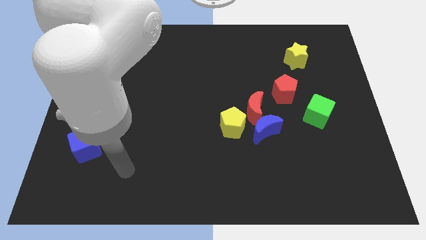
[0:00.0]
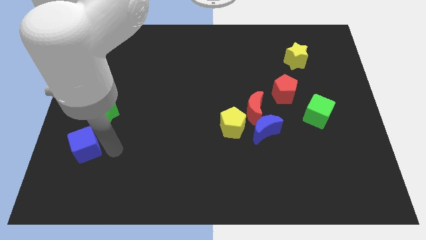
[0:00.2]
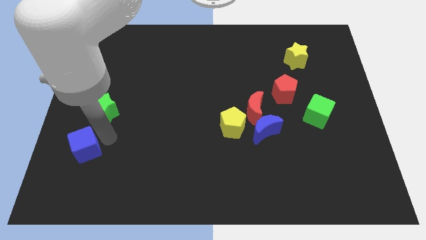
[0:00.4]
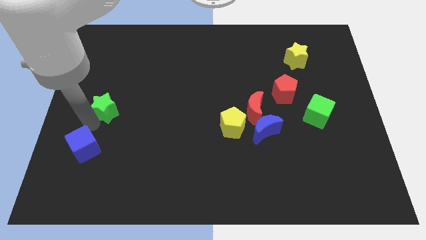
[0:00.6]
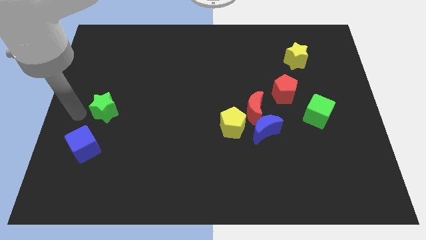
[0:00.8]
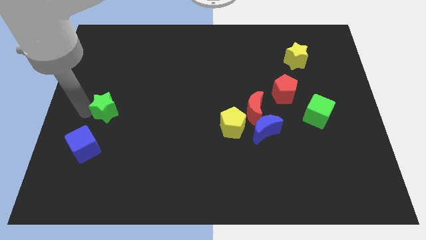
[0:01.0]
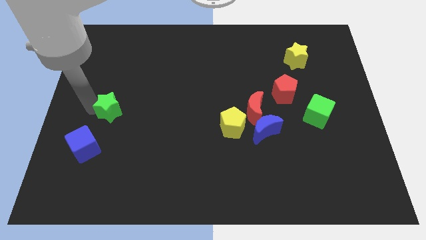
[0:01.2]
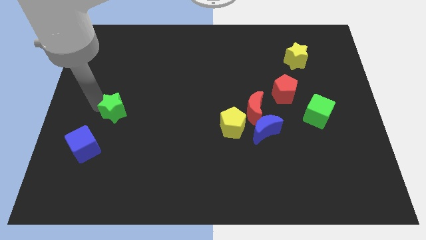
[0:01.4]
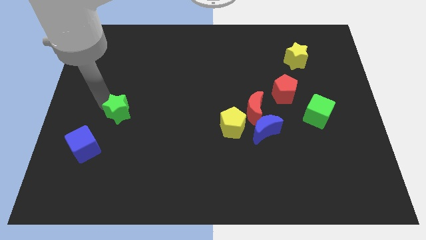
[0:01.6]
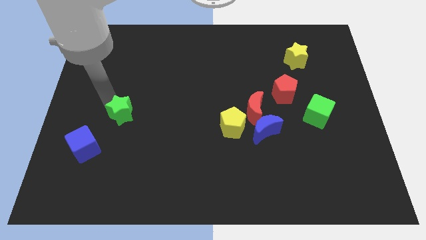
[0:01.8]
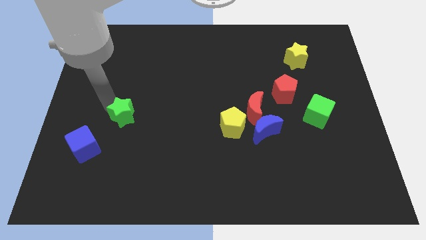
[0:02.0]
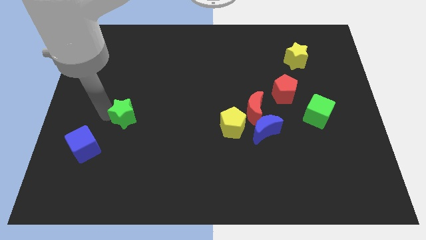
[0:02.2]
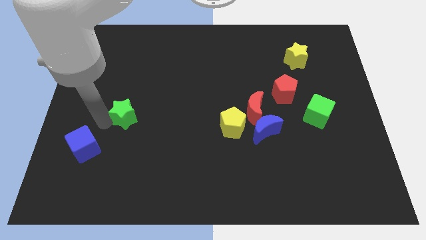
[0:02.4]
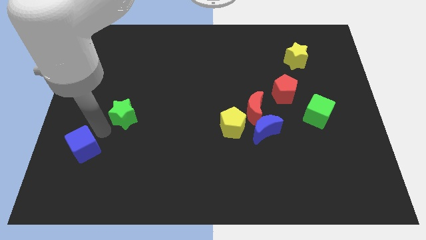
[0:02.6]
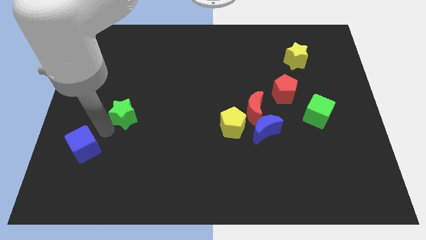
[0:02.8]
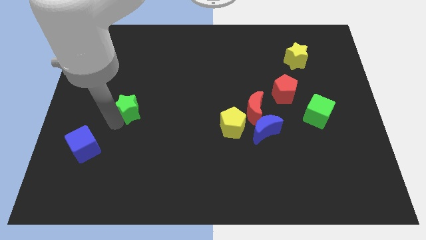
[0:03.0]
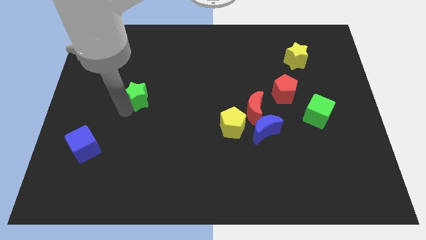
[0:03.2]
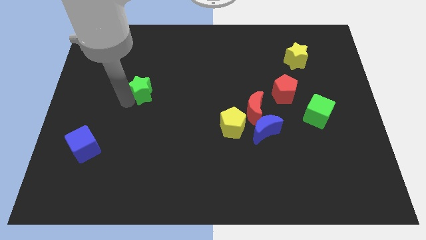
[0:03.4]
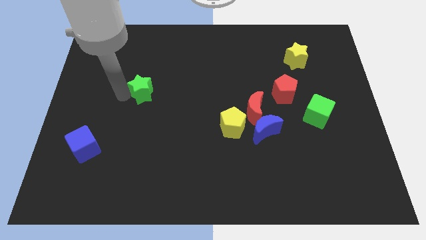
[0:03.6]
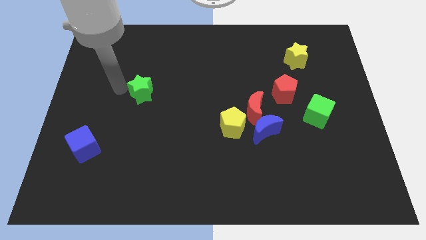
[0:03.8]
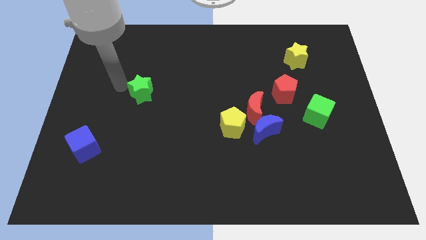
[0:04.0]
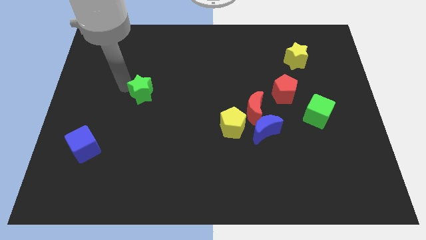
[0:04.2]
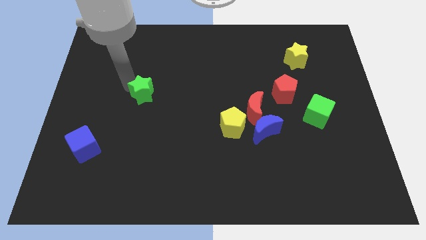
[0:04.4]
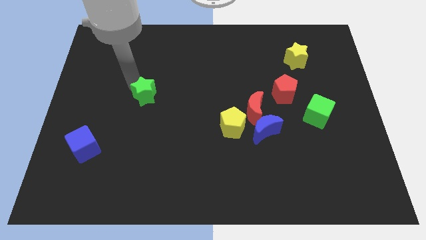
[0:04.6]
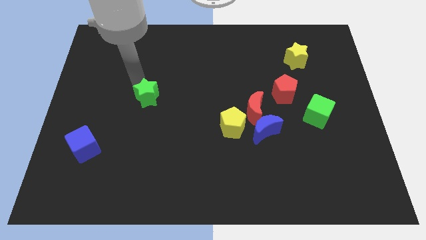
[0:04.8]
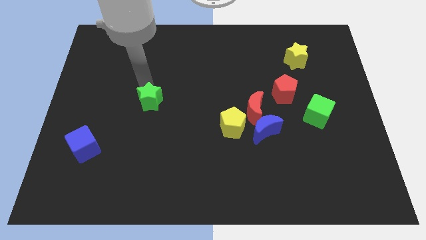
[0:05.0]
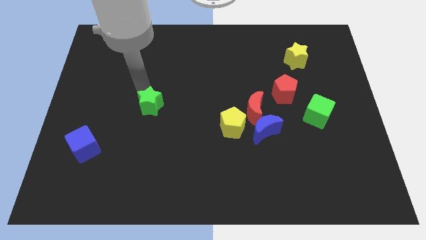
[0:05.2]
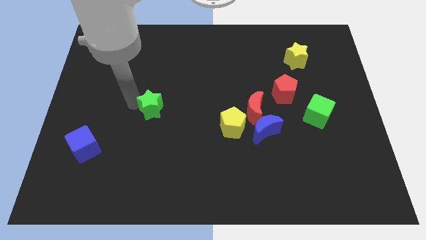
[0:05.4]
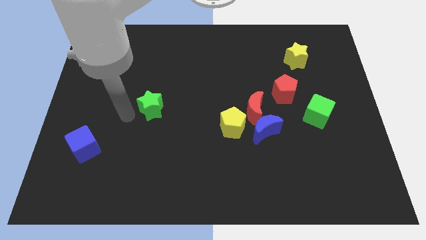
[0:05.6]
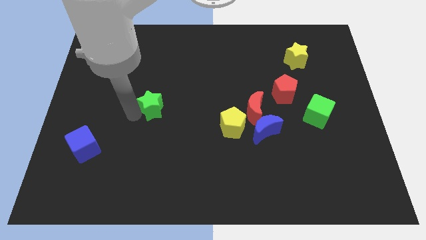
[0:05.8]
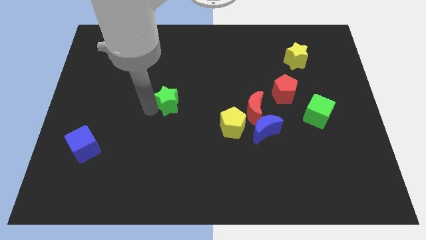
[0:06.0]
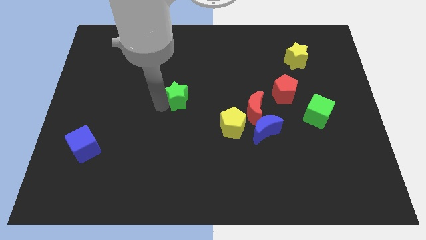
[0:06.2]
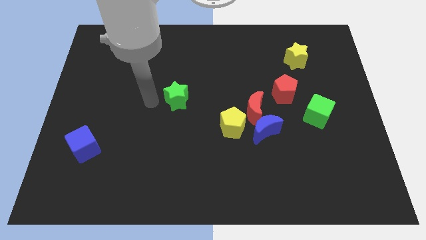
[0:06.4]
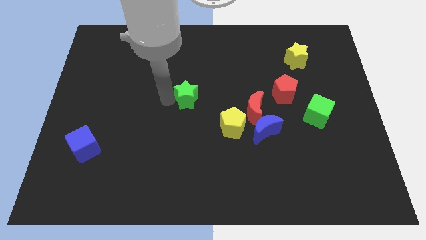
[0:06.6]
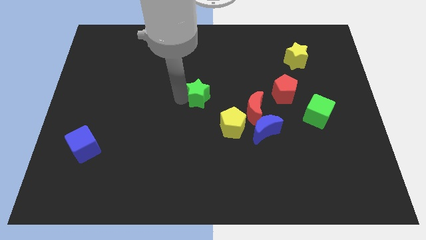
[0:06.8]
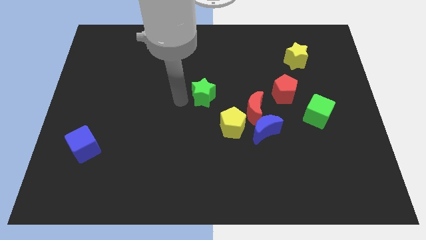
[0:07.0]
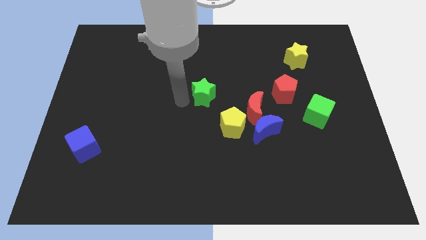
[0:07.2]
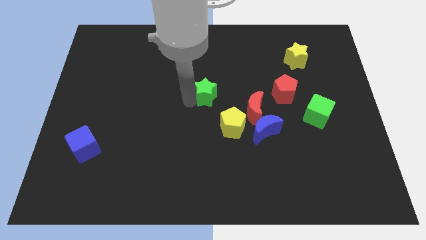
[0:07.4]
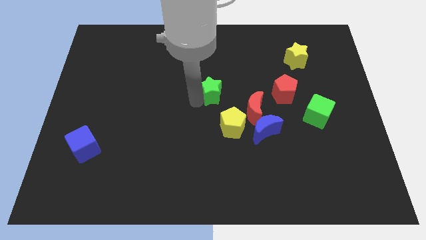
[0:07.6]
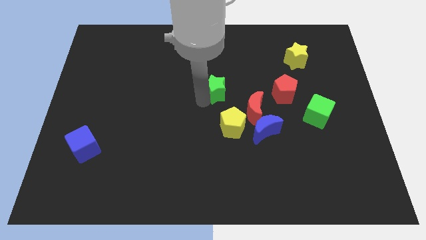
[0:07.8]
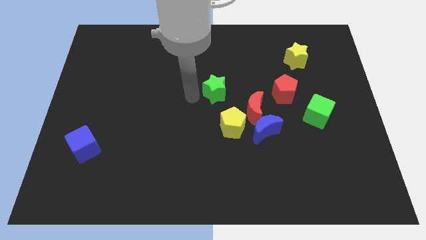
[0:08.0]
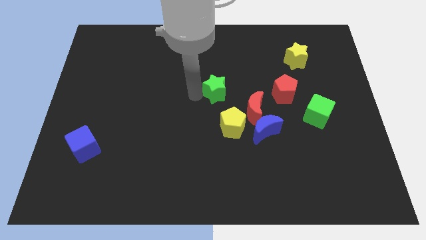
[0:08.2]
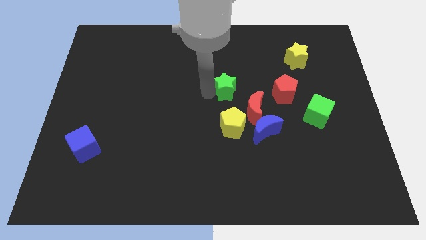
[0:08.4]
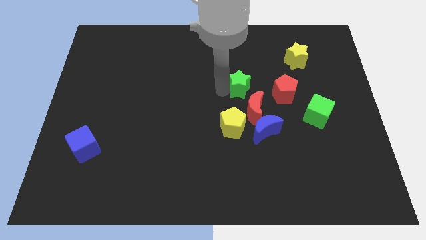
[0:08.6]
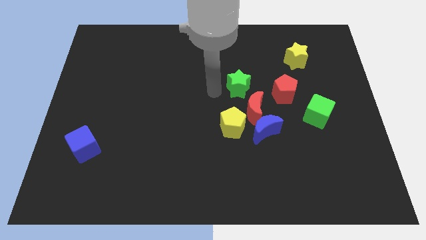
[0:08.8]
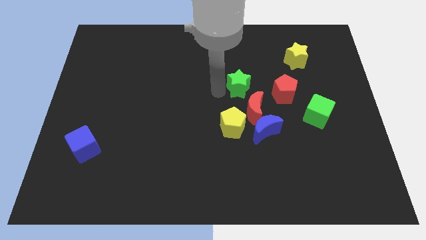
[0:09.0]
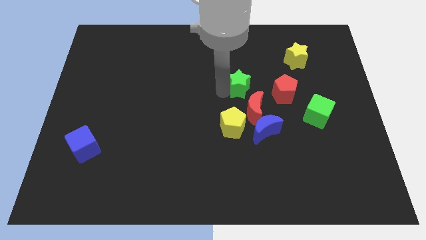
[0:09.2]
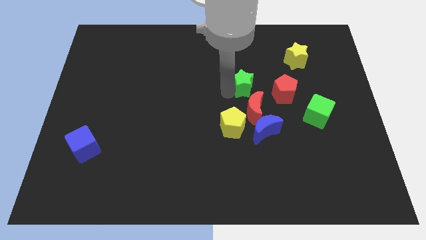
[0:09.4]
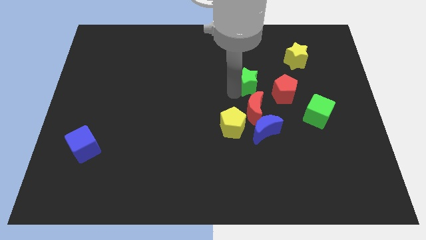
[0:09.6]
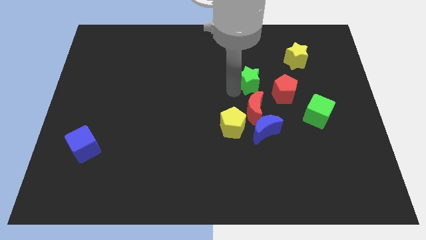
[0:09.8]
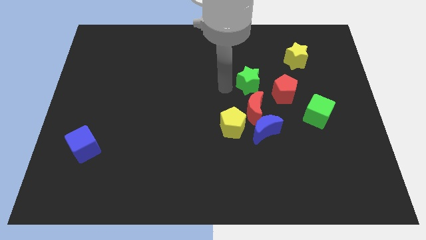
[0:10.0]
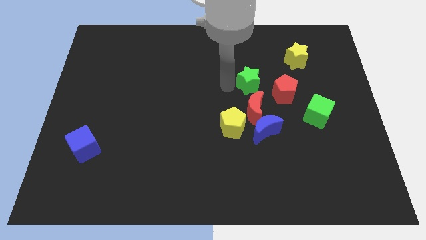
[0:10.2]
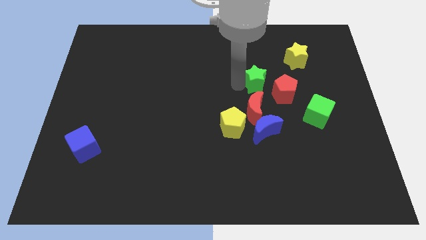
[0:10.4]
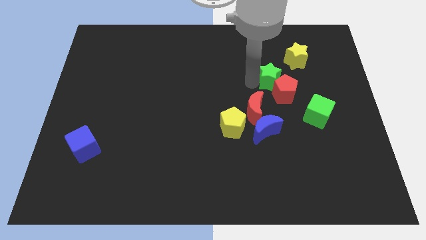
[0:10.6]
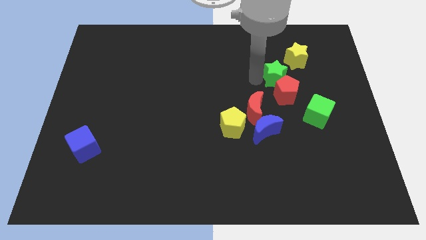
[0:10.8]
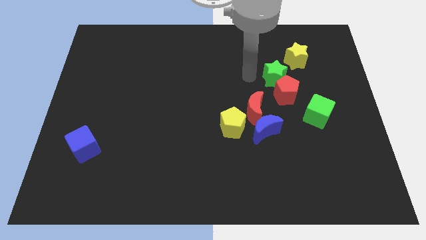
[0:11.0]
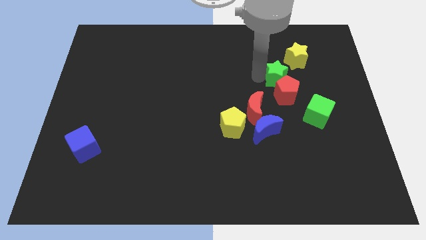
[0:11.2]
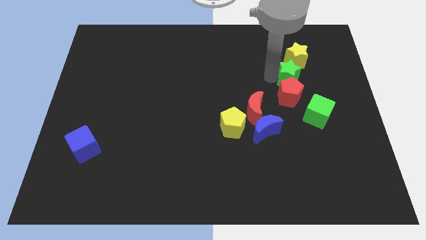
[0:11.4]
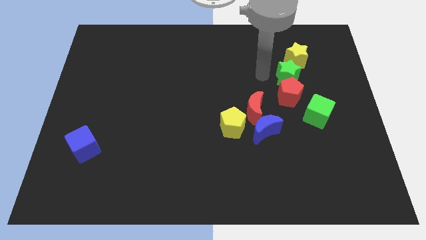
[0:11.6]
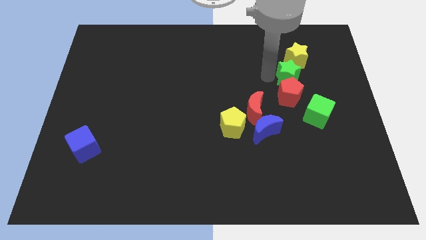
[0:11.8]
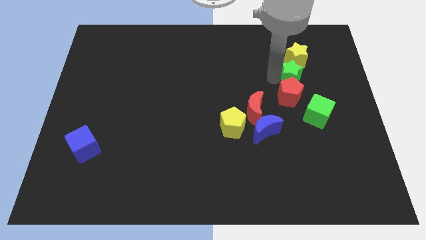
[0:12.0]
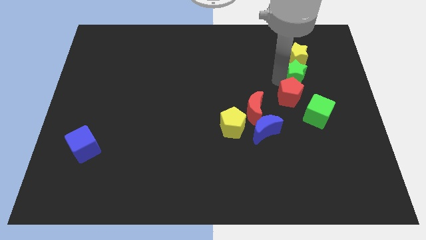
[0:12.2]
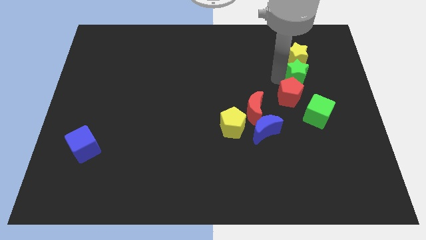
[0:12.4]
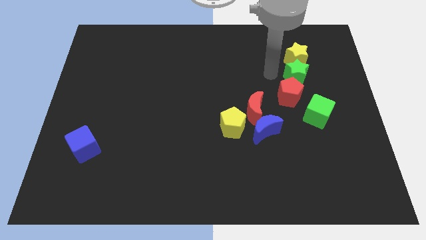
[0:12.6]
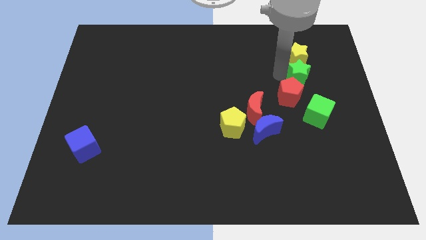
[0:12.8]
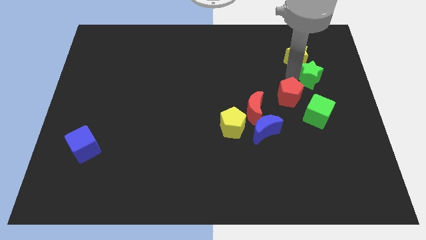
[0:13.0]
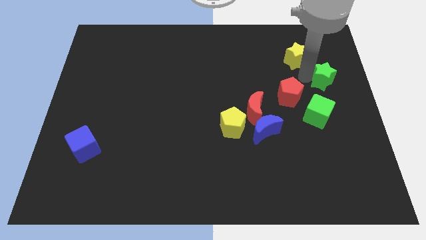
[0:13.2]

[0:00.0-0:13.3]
slide the green star to the right side
